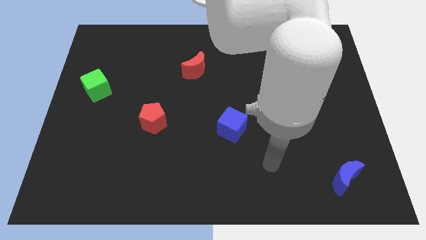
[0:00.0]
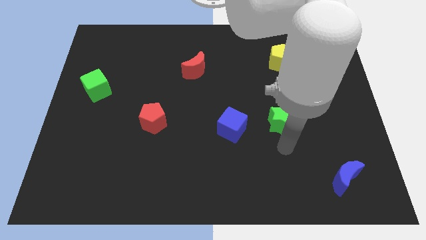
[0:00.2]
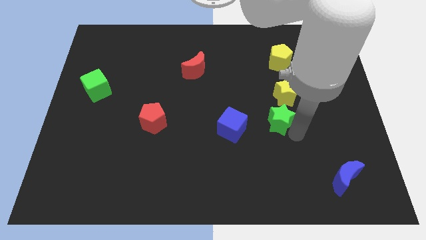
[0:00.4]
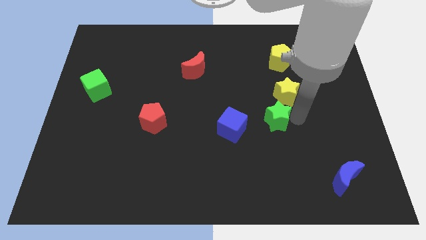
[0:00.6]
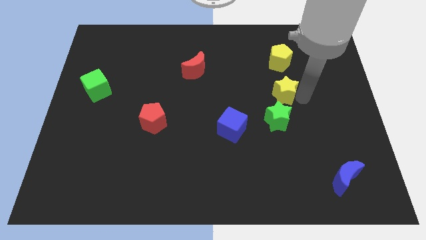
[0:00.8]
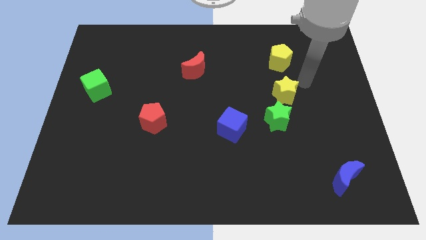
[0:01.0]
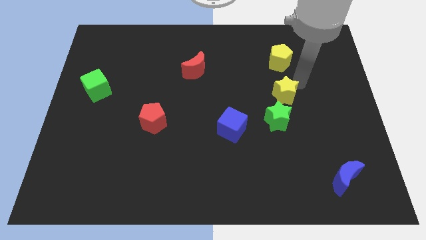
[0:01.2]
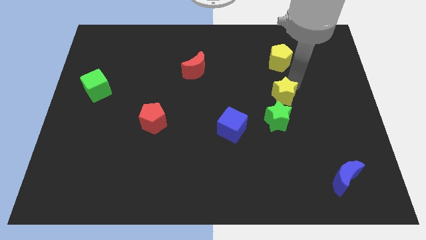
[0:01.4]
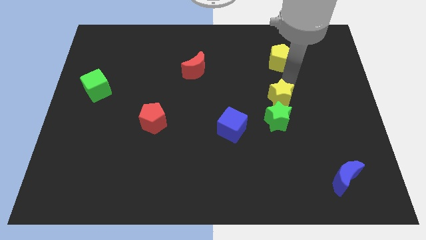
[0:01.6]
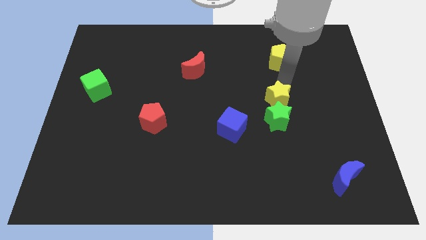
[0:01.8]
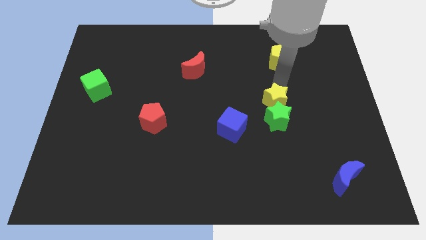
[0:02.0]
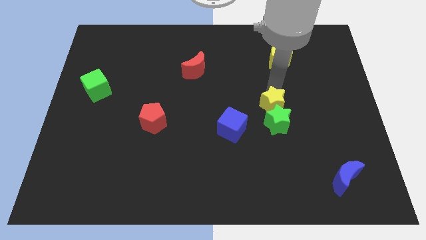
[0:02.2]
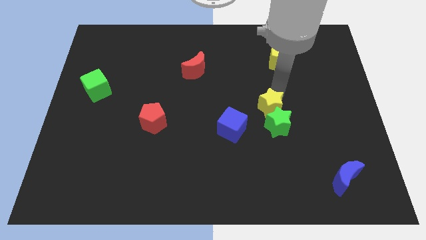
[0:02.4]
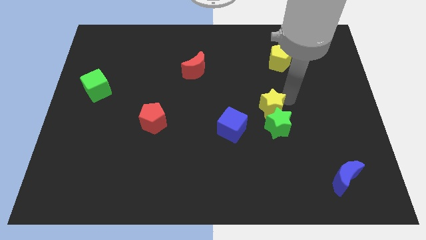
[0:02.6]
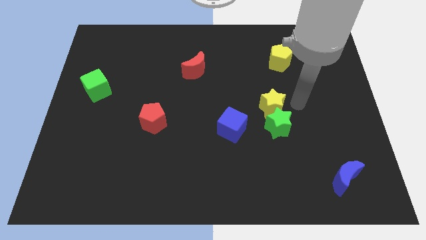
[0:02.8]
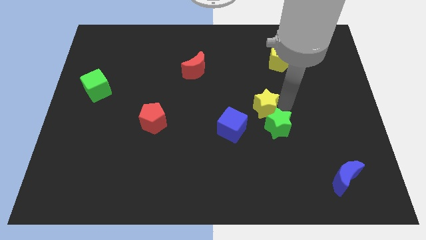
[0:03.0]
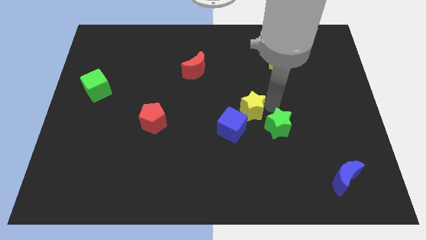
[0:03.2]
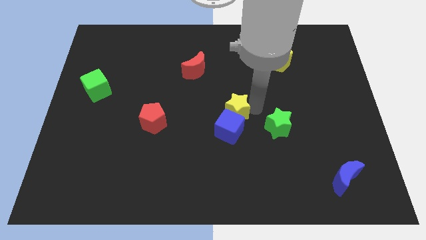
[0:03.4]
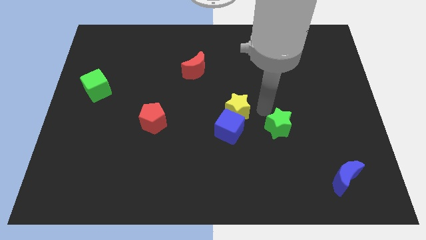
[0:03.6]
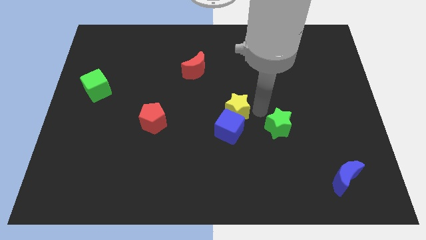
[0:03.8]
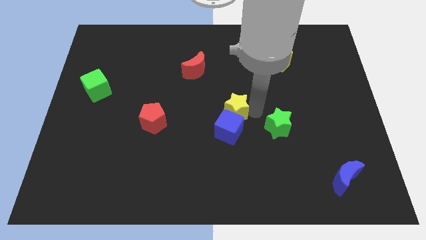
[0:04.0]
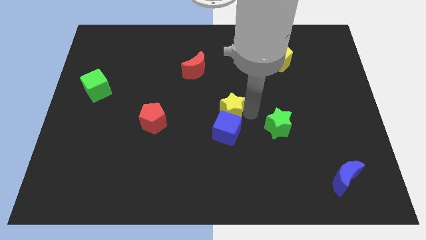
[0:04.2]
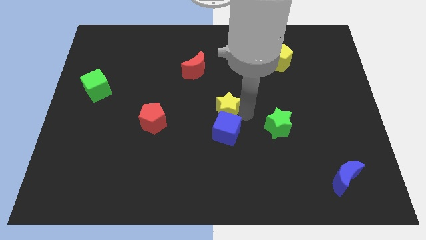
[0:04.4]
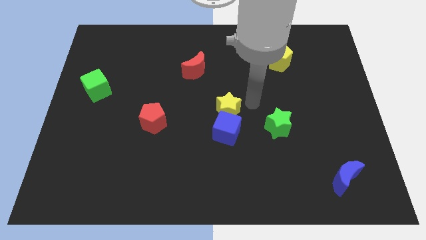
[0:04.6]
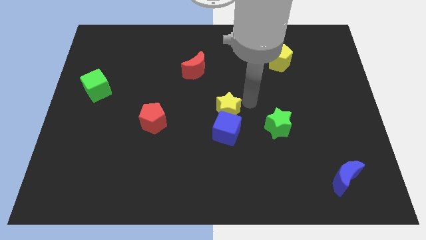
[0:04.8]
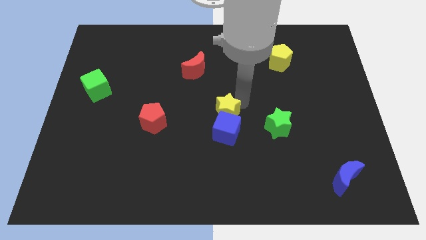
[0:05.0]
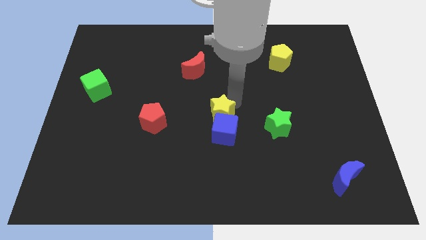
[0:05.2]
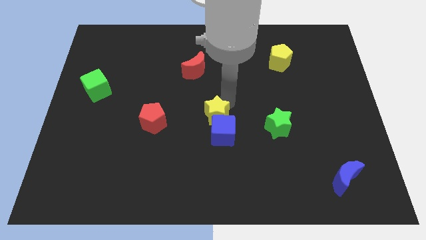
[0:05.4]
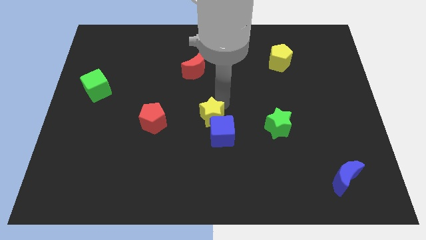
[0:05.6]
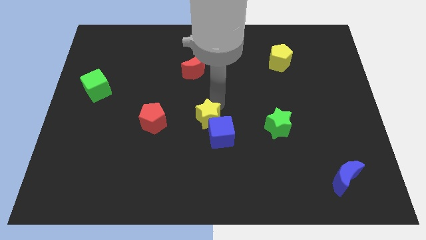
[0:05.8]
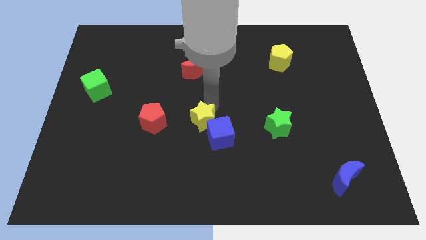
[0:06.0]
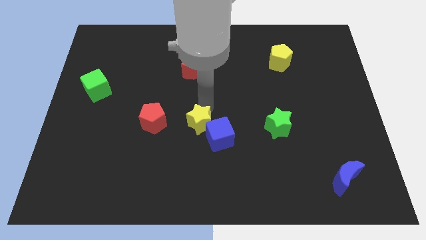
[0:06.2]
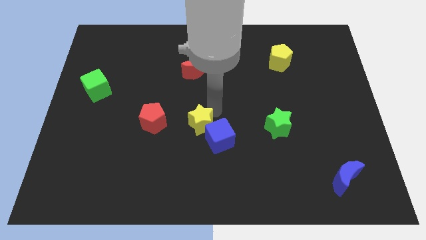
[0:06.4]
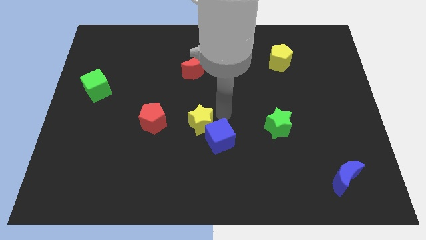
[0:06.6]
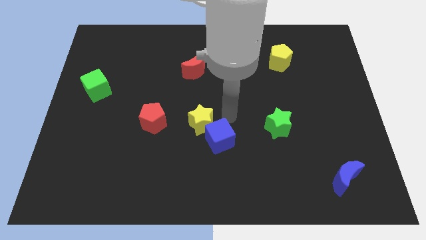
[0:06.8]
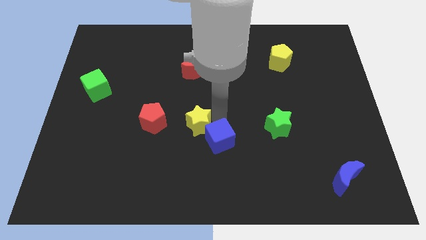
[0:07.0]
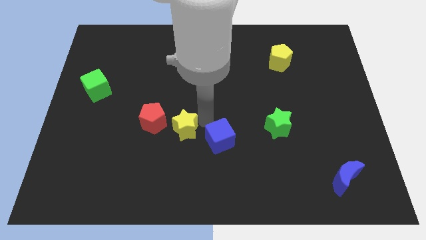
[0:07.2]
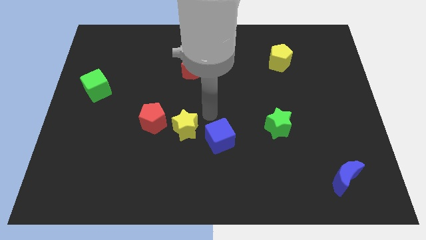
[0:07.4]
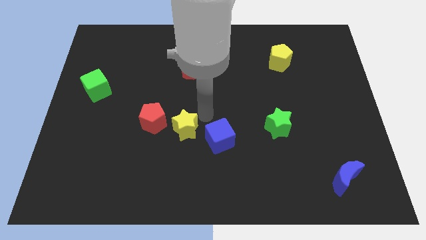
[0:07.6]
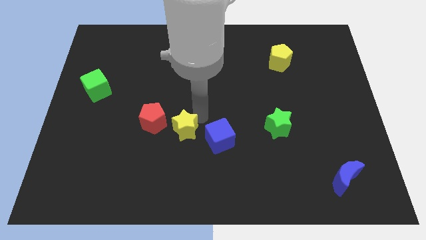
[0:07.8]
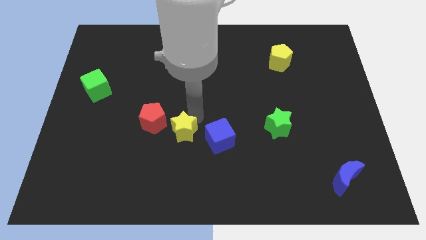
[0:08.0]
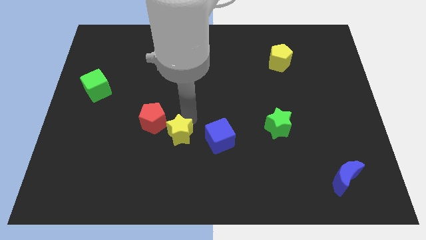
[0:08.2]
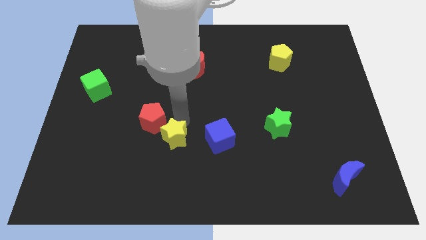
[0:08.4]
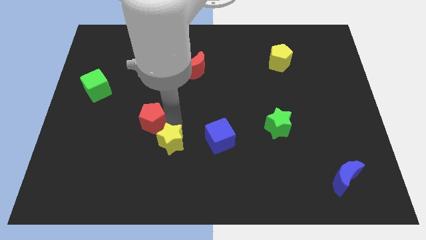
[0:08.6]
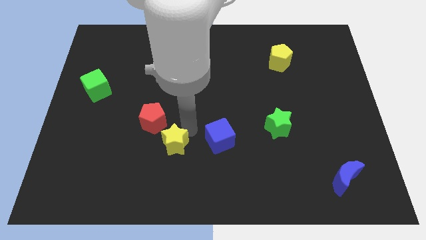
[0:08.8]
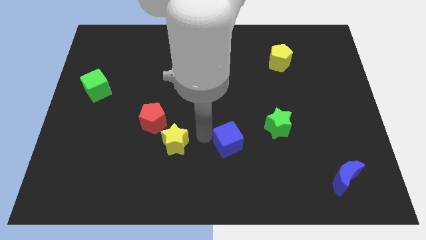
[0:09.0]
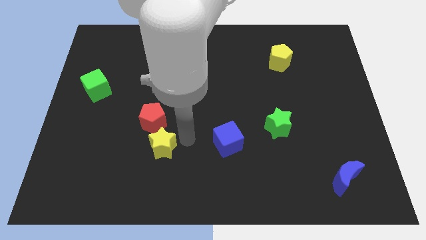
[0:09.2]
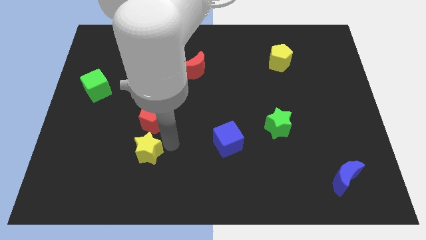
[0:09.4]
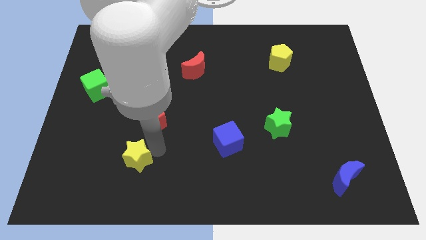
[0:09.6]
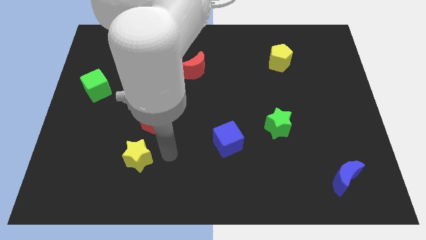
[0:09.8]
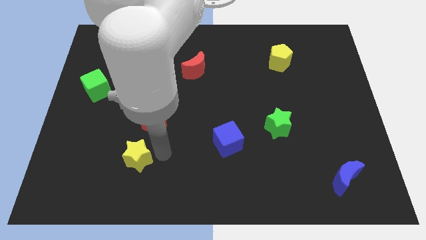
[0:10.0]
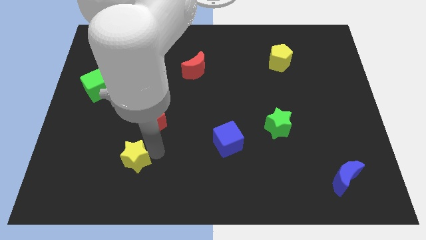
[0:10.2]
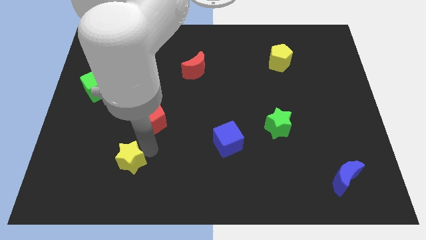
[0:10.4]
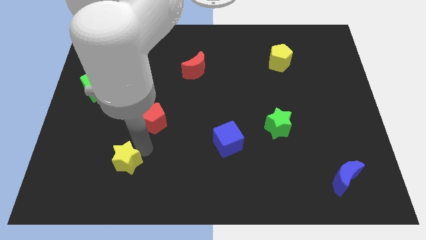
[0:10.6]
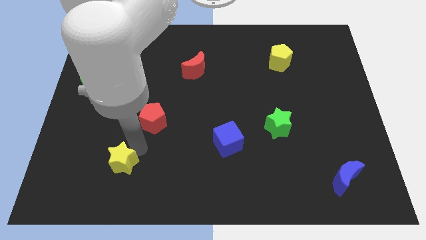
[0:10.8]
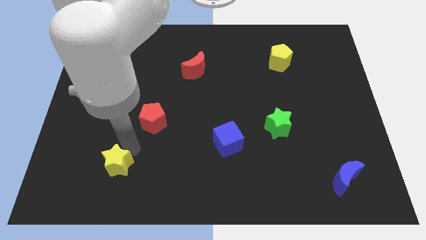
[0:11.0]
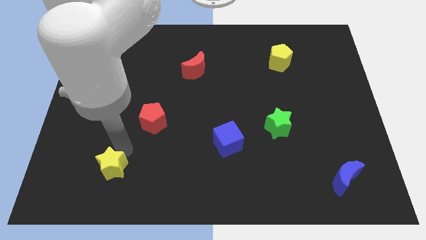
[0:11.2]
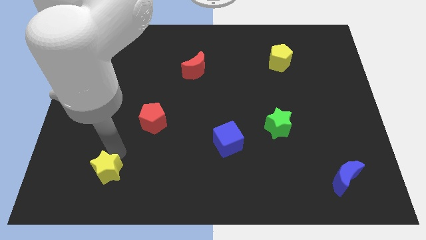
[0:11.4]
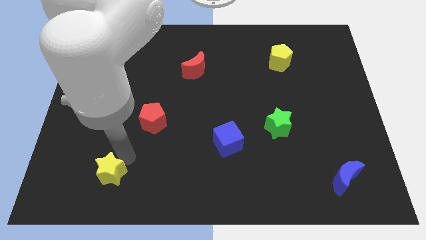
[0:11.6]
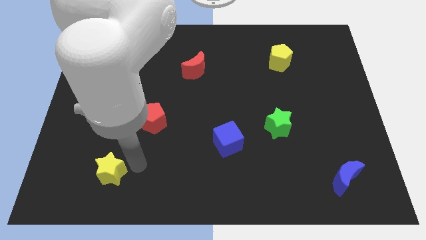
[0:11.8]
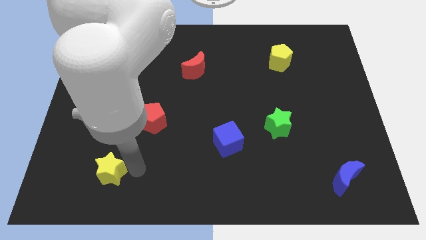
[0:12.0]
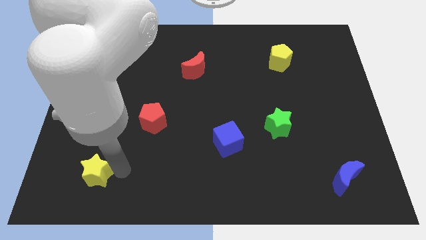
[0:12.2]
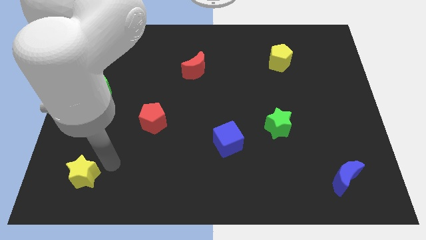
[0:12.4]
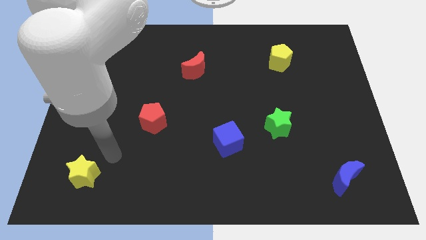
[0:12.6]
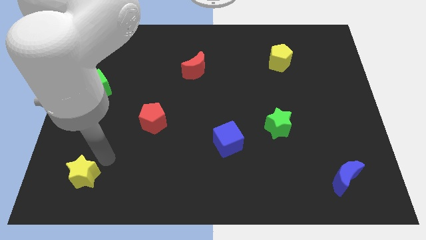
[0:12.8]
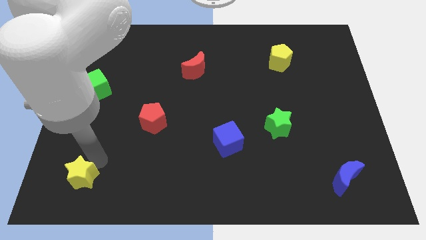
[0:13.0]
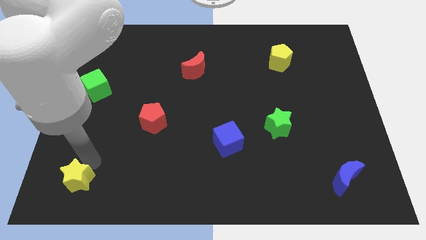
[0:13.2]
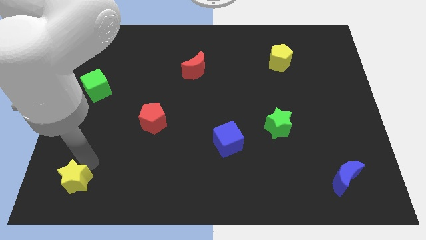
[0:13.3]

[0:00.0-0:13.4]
push the yellow star to the bottom left of the board
